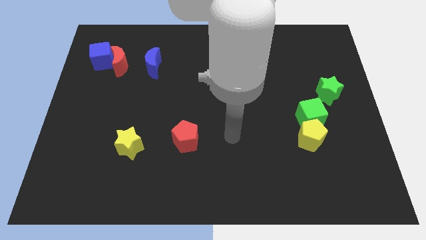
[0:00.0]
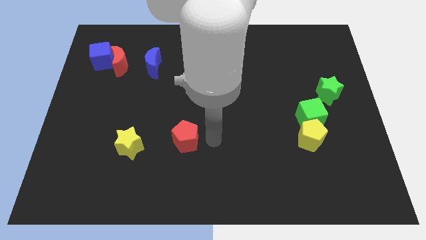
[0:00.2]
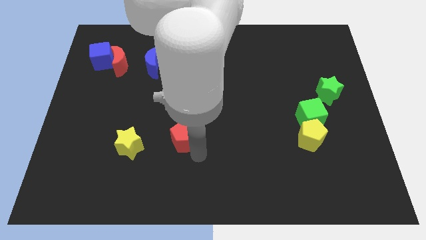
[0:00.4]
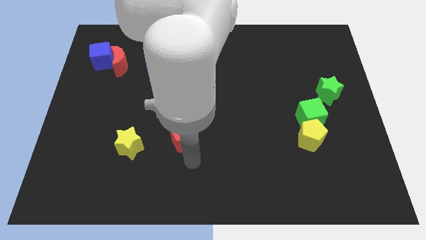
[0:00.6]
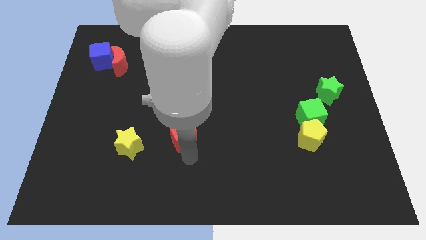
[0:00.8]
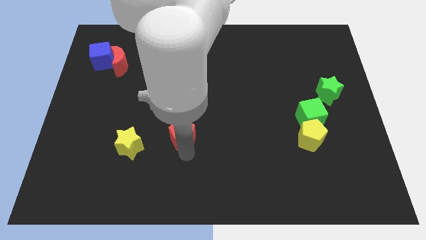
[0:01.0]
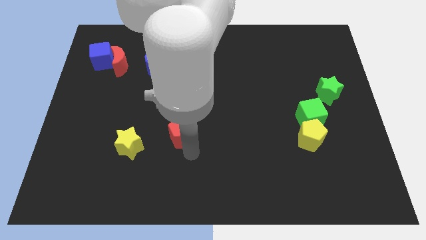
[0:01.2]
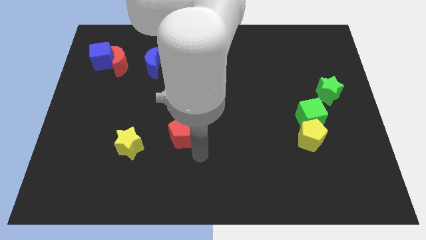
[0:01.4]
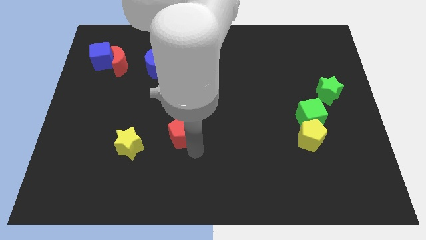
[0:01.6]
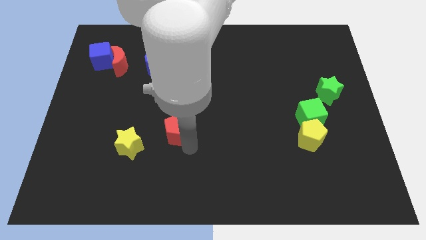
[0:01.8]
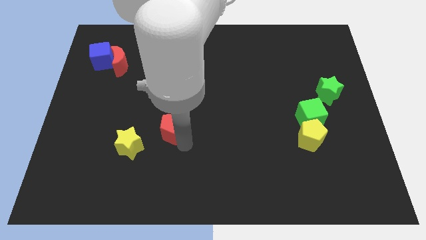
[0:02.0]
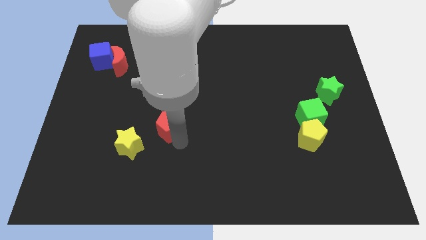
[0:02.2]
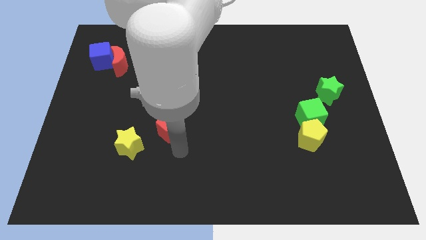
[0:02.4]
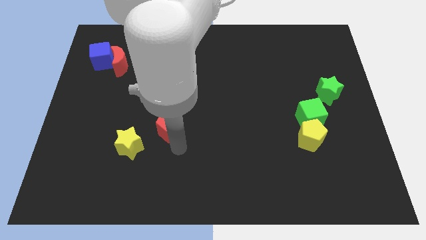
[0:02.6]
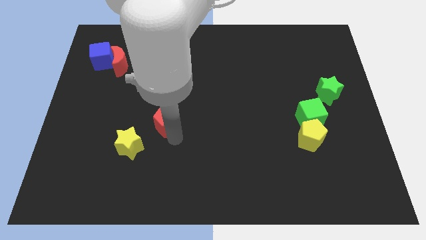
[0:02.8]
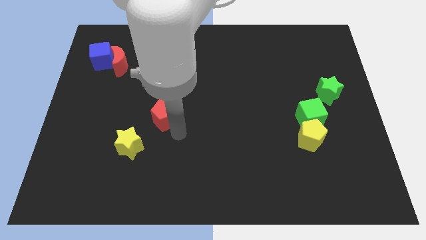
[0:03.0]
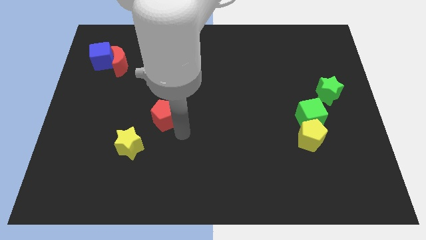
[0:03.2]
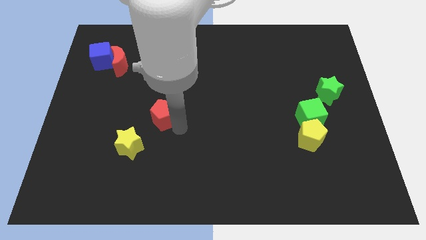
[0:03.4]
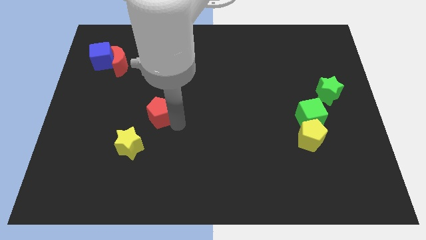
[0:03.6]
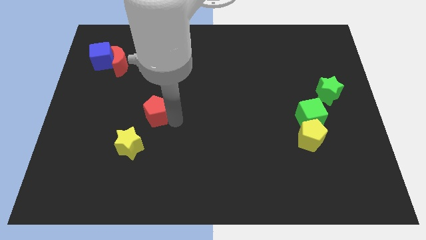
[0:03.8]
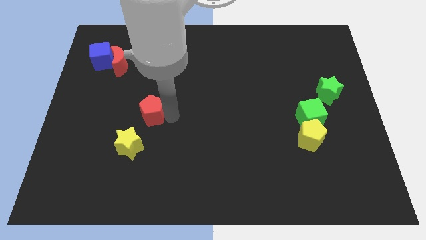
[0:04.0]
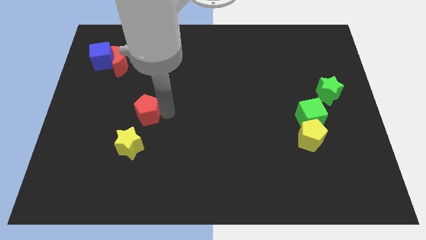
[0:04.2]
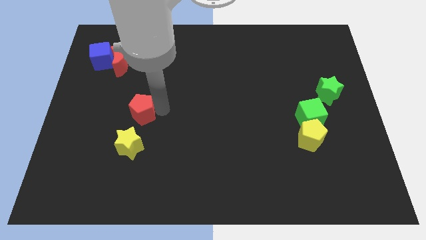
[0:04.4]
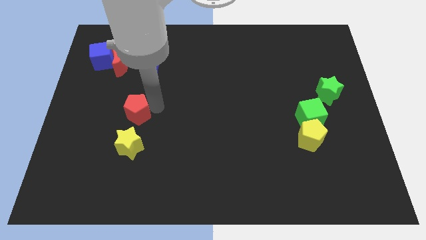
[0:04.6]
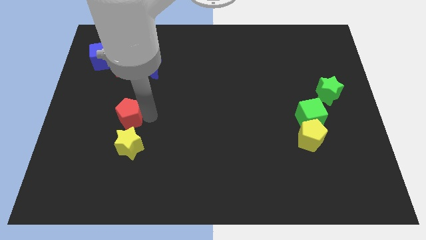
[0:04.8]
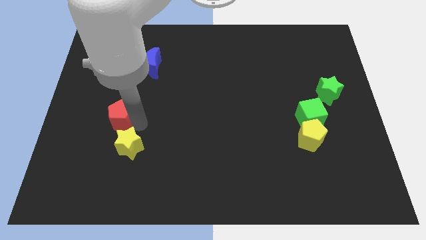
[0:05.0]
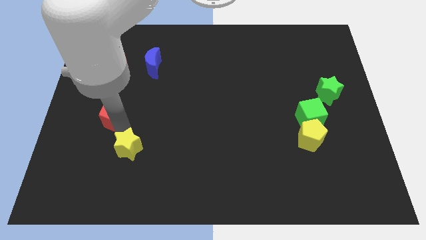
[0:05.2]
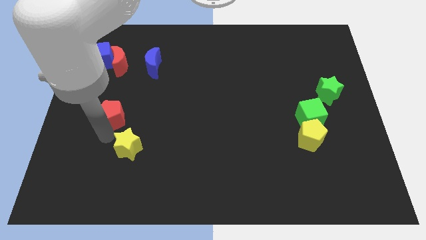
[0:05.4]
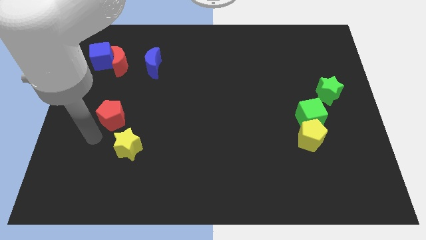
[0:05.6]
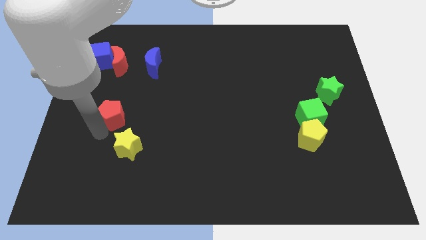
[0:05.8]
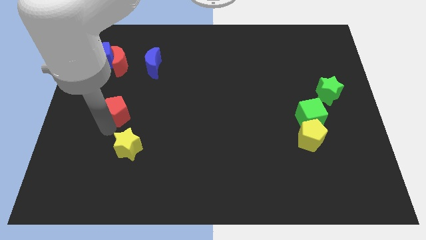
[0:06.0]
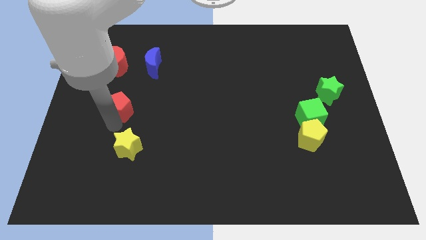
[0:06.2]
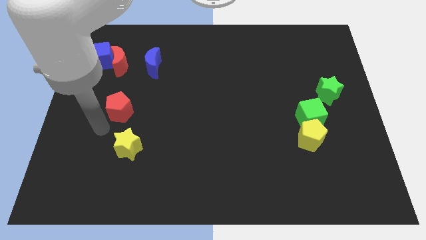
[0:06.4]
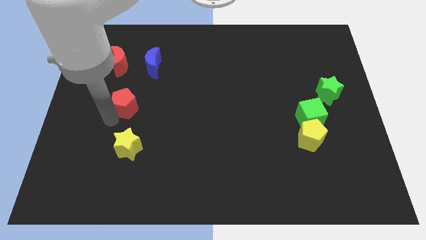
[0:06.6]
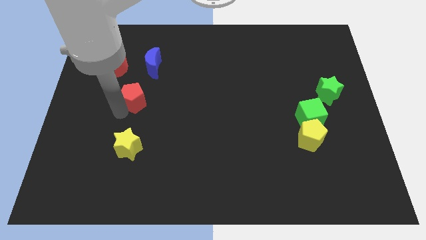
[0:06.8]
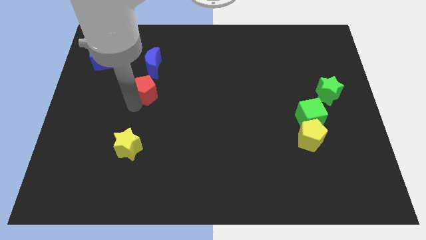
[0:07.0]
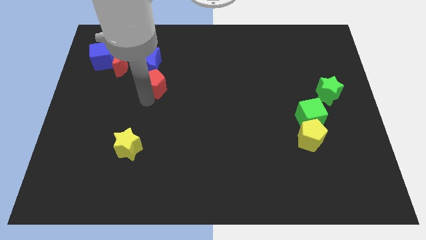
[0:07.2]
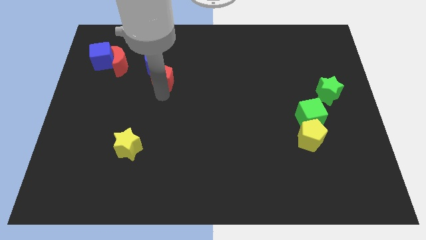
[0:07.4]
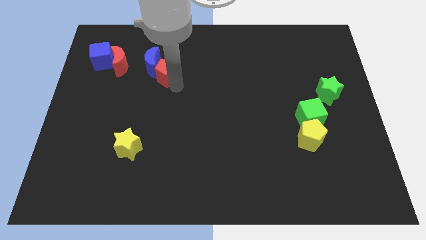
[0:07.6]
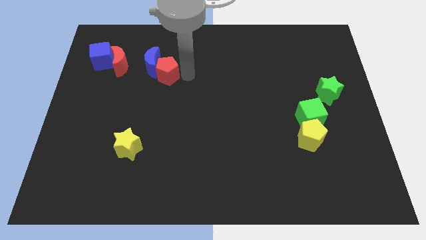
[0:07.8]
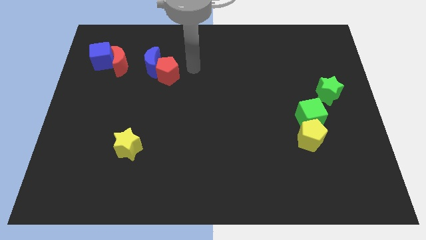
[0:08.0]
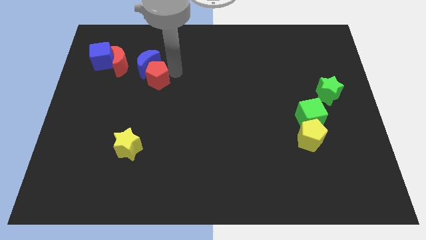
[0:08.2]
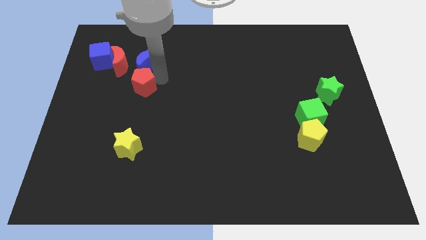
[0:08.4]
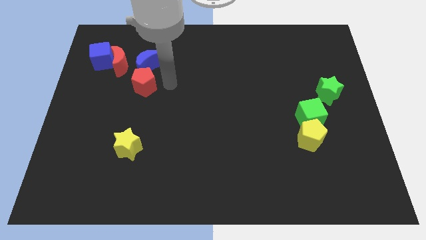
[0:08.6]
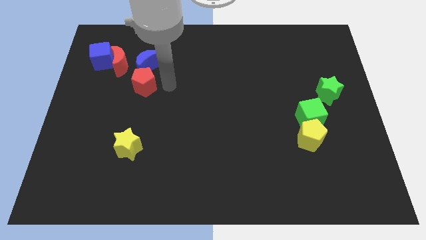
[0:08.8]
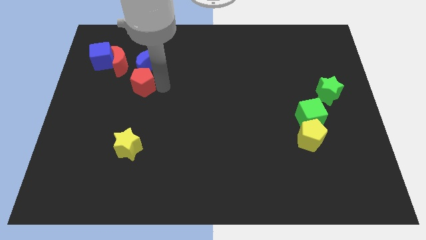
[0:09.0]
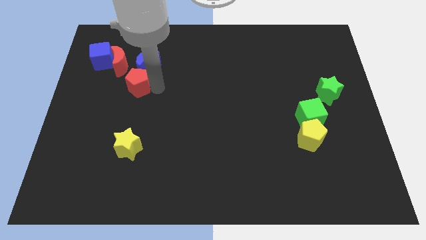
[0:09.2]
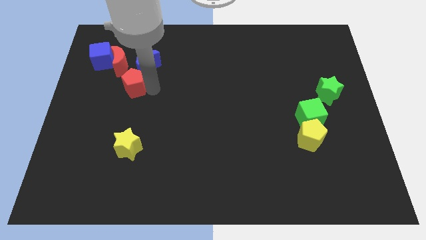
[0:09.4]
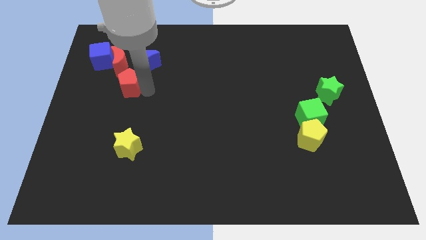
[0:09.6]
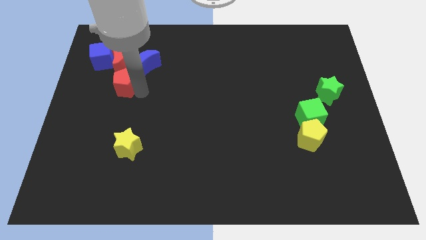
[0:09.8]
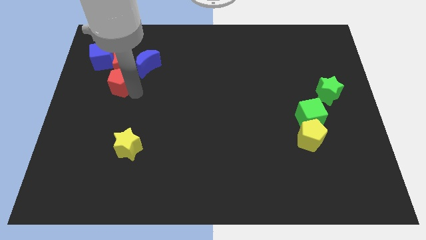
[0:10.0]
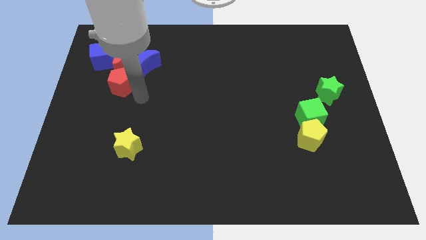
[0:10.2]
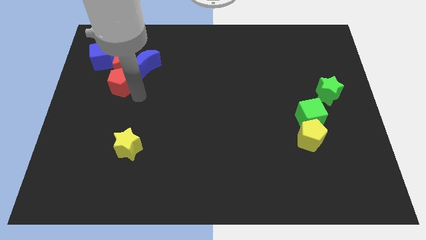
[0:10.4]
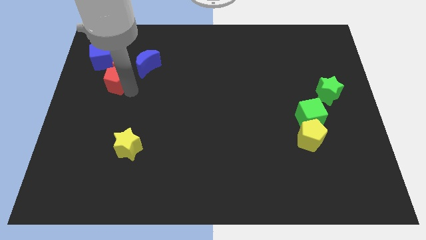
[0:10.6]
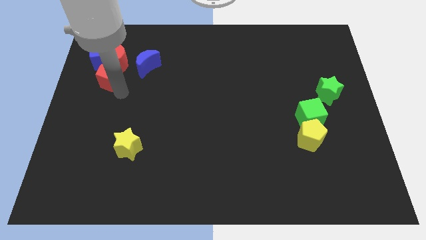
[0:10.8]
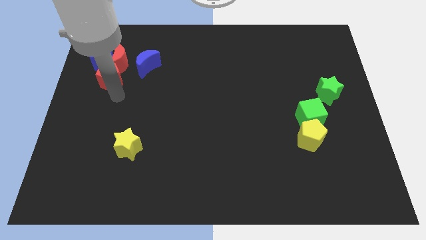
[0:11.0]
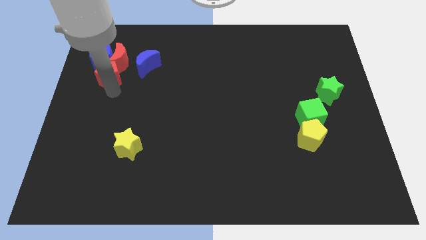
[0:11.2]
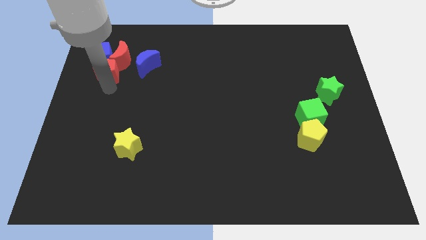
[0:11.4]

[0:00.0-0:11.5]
push the red pentagon to the blue cube
